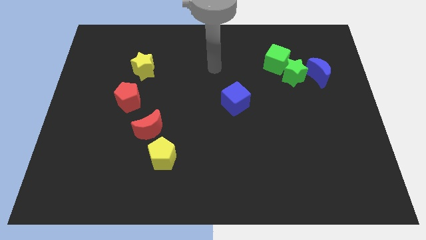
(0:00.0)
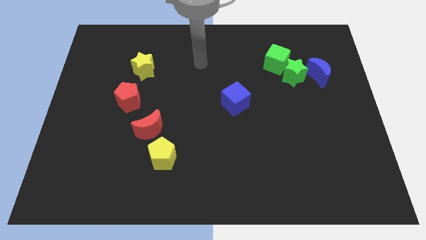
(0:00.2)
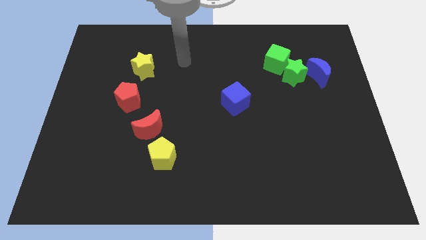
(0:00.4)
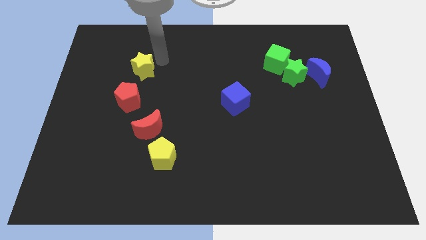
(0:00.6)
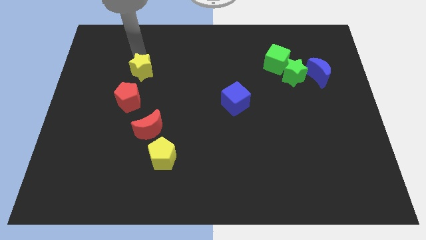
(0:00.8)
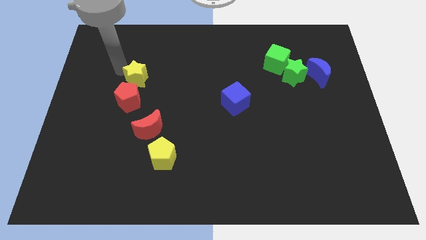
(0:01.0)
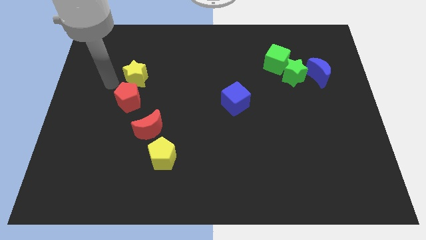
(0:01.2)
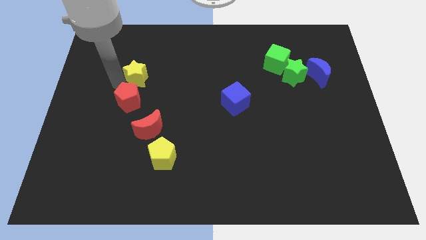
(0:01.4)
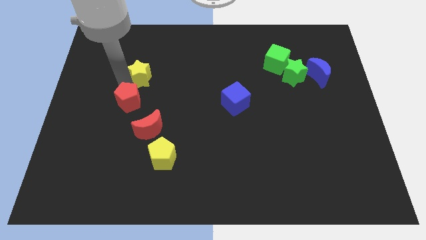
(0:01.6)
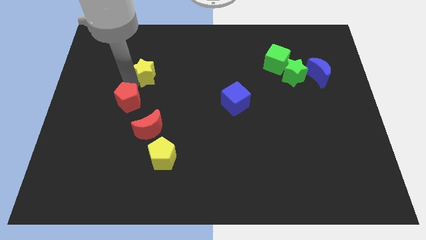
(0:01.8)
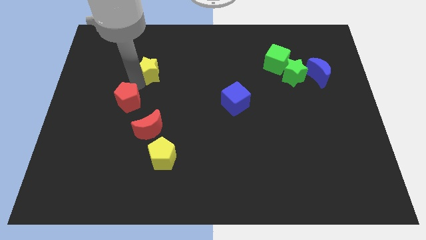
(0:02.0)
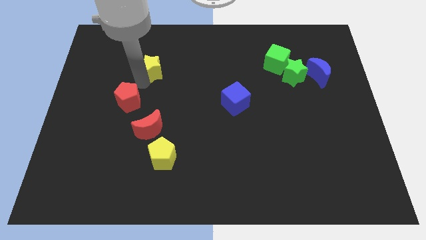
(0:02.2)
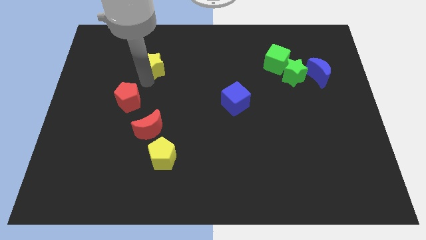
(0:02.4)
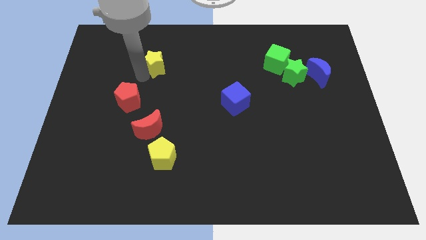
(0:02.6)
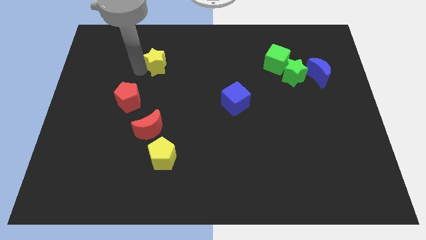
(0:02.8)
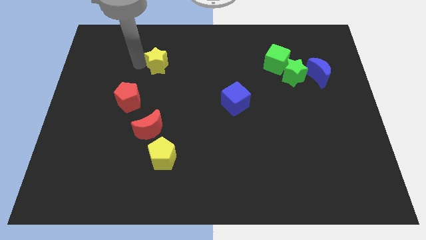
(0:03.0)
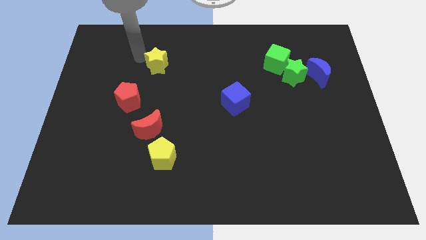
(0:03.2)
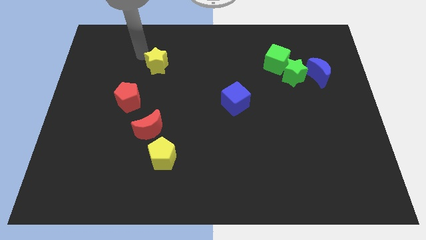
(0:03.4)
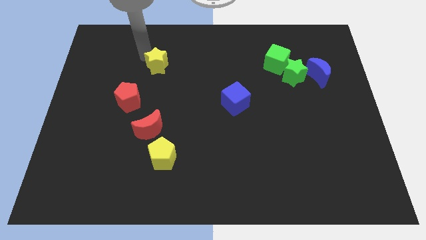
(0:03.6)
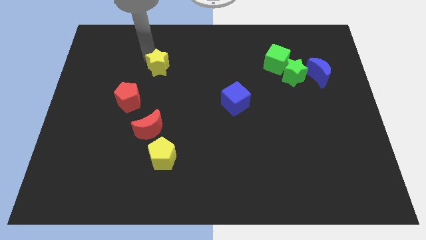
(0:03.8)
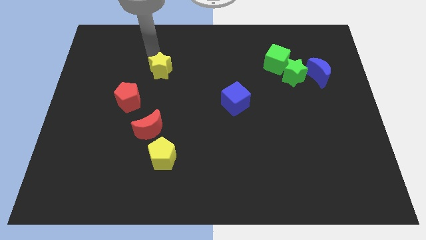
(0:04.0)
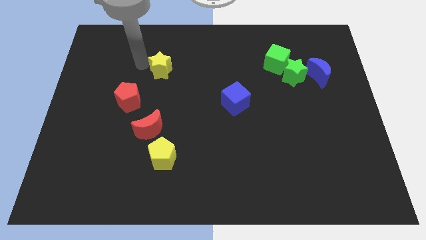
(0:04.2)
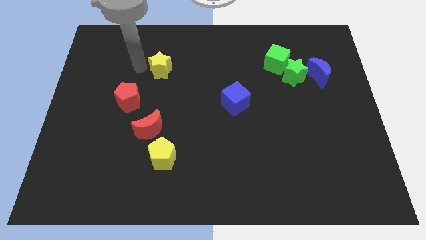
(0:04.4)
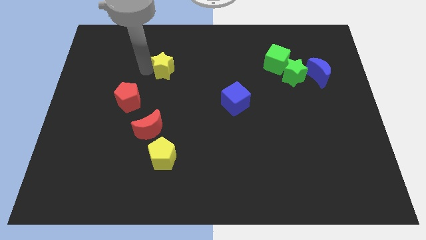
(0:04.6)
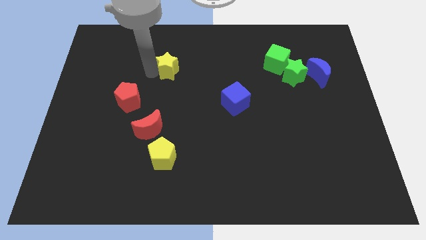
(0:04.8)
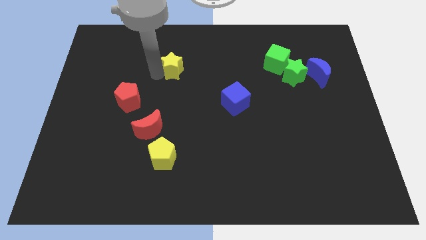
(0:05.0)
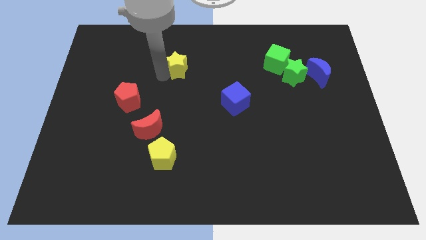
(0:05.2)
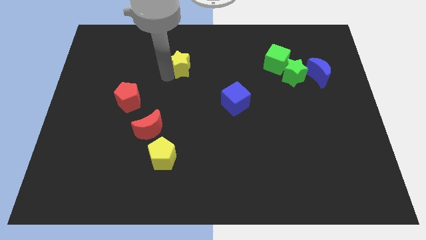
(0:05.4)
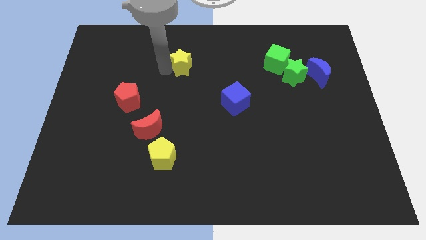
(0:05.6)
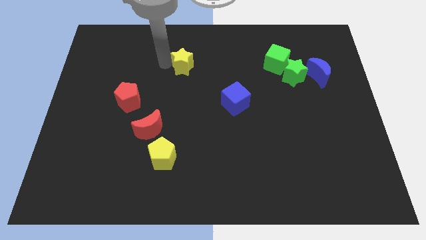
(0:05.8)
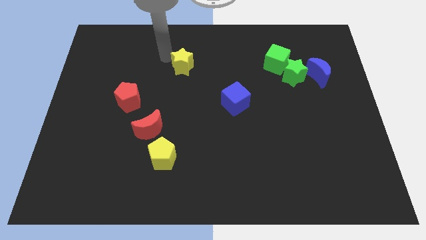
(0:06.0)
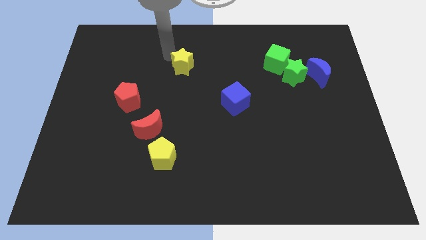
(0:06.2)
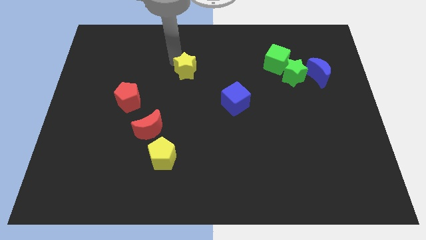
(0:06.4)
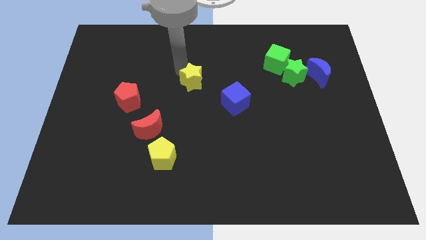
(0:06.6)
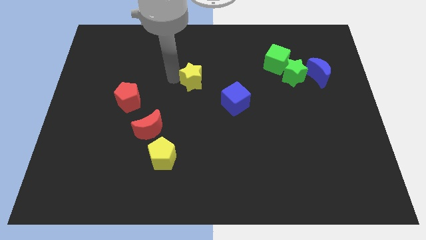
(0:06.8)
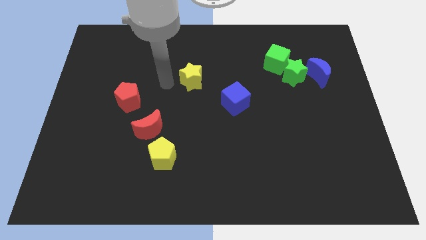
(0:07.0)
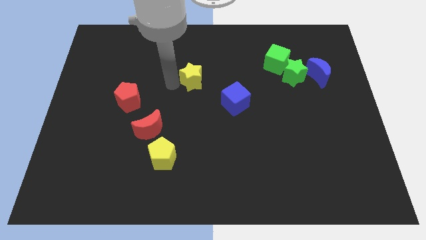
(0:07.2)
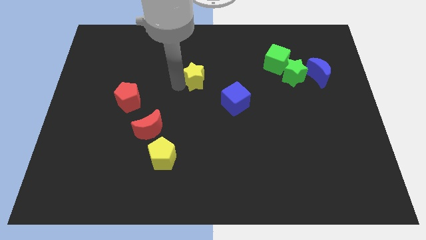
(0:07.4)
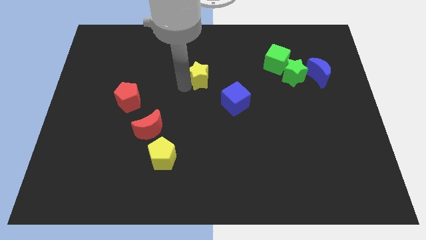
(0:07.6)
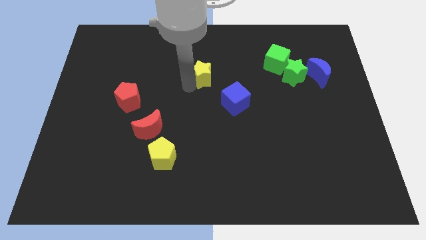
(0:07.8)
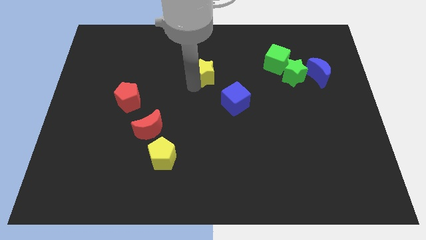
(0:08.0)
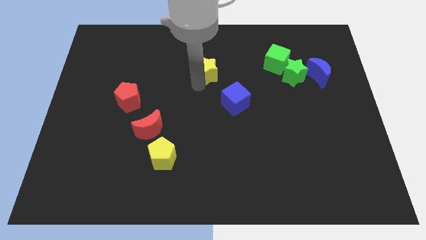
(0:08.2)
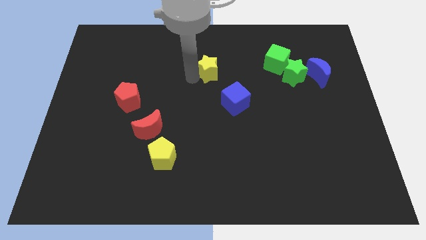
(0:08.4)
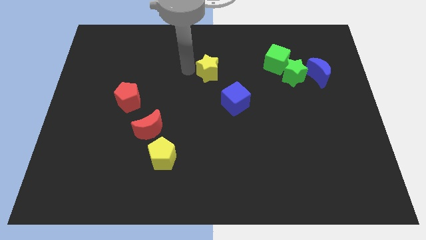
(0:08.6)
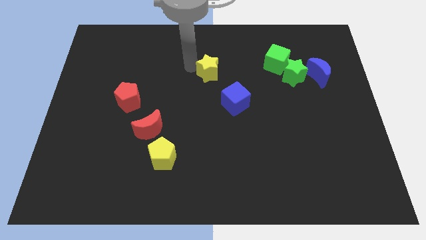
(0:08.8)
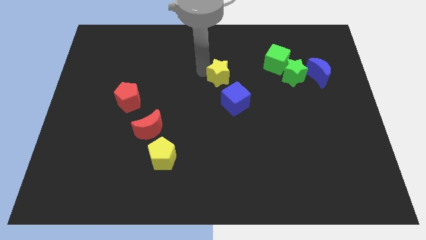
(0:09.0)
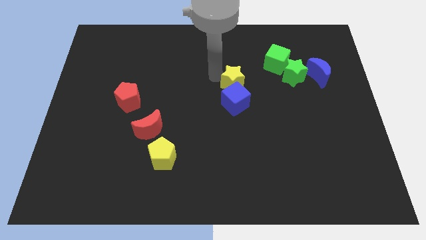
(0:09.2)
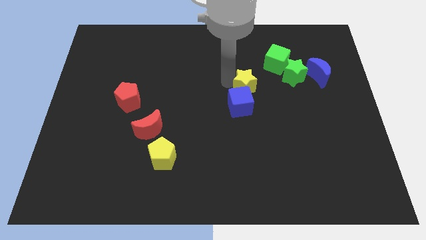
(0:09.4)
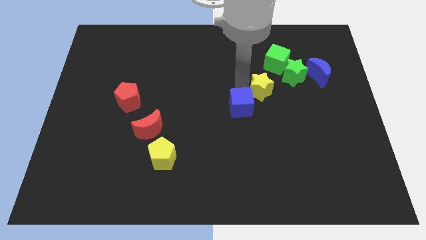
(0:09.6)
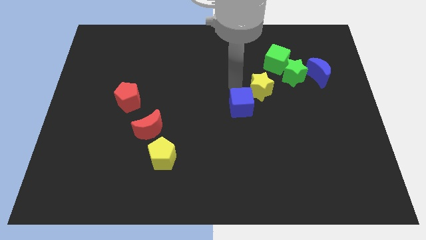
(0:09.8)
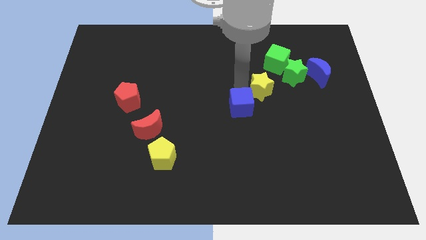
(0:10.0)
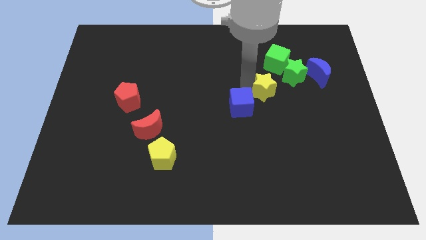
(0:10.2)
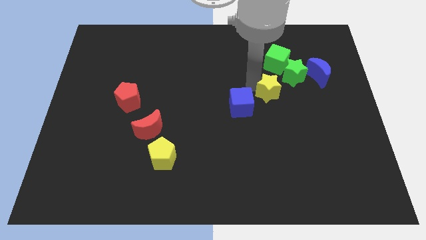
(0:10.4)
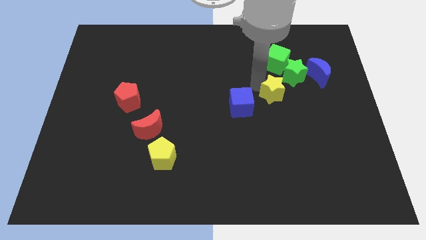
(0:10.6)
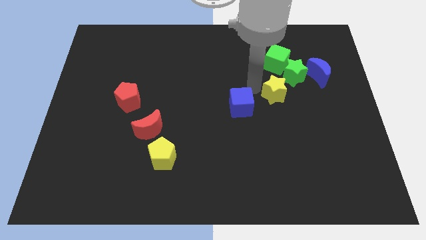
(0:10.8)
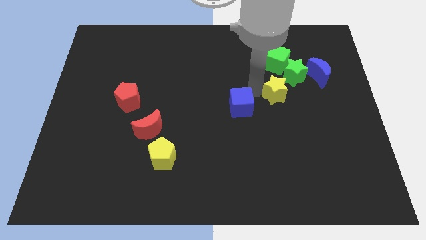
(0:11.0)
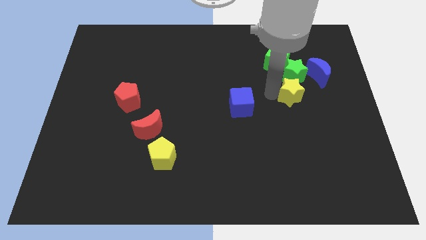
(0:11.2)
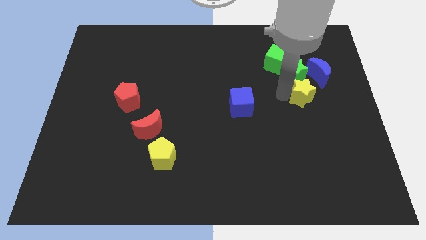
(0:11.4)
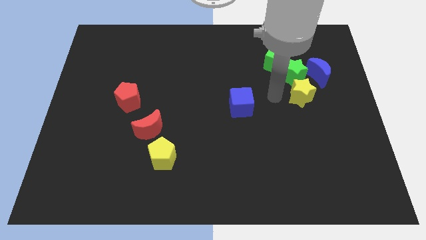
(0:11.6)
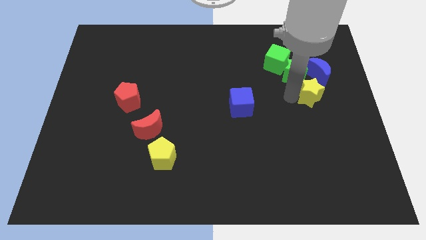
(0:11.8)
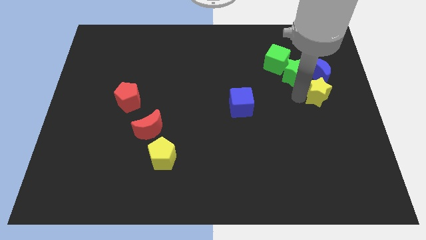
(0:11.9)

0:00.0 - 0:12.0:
put the yellow star to the center right
